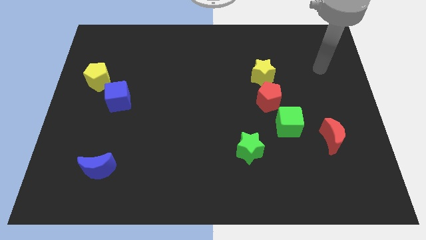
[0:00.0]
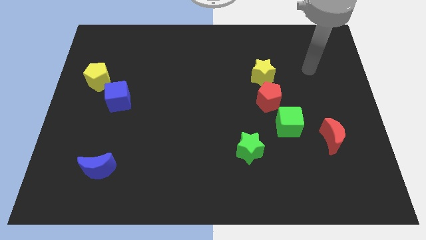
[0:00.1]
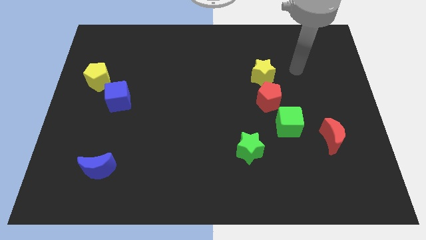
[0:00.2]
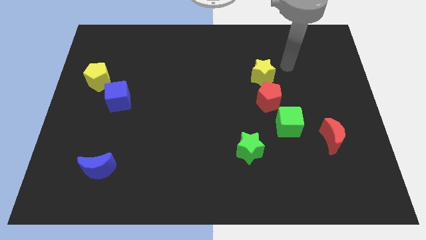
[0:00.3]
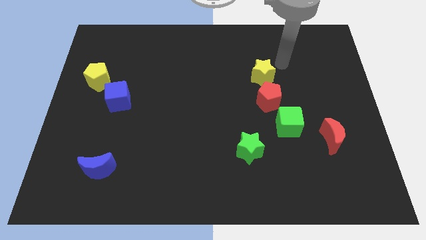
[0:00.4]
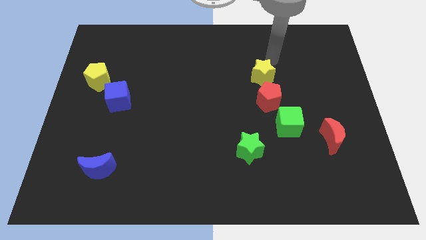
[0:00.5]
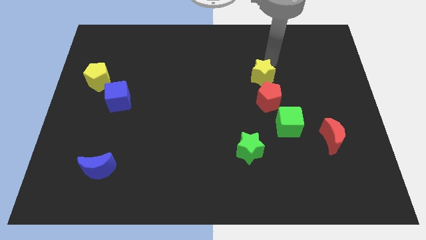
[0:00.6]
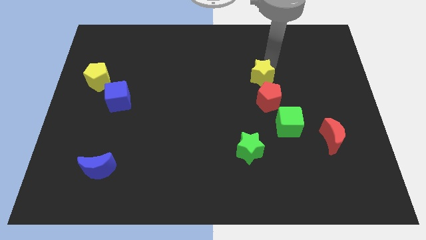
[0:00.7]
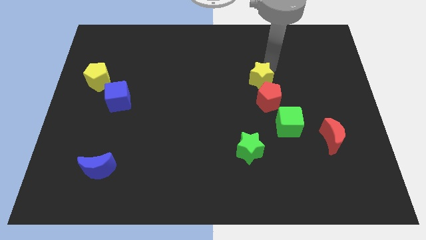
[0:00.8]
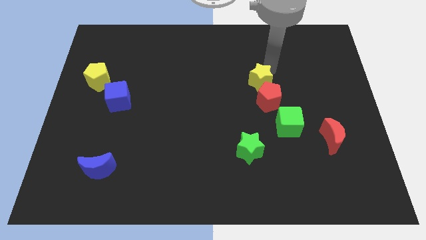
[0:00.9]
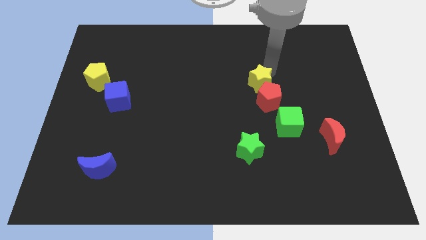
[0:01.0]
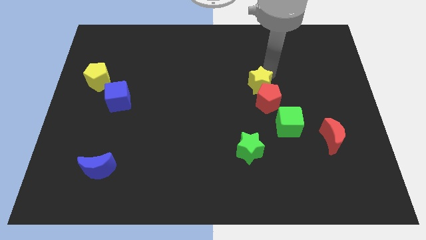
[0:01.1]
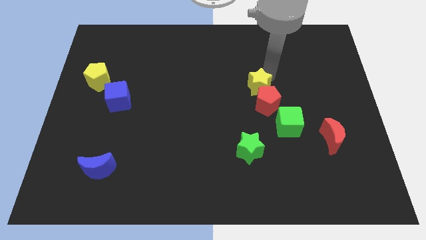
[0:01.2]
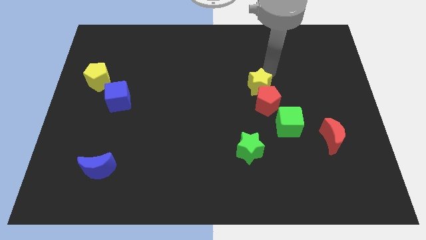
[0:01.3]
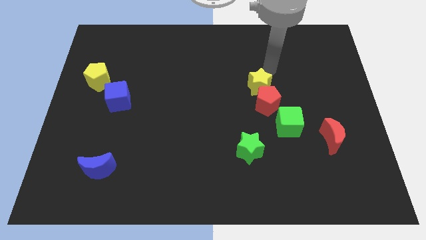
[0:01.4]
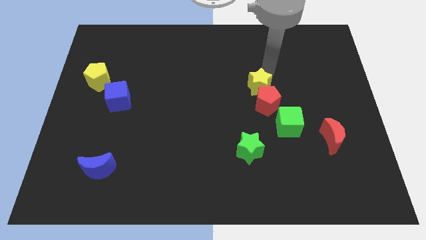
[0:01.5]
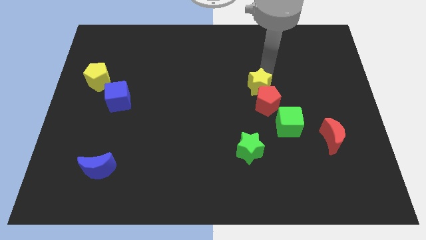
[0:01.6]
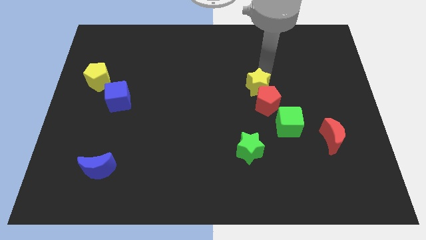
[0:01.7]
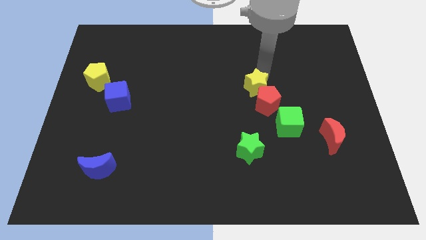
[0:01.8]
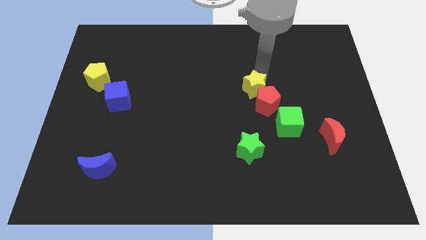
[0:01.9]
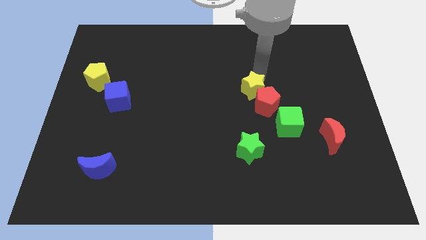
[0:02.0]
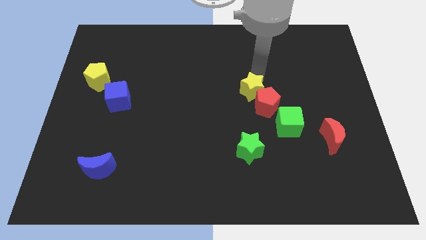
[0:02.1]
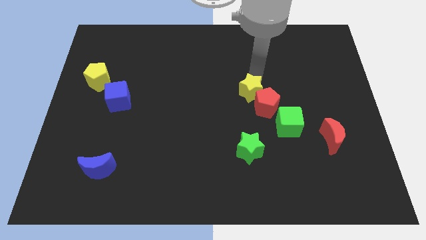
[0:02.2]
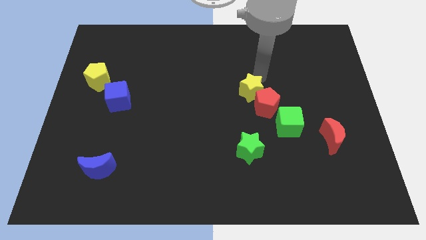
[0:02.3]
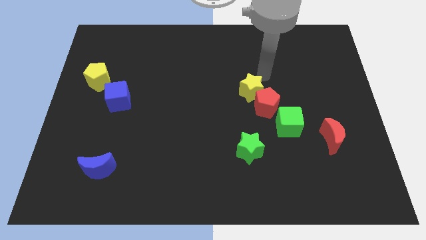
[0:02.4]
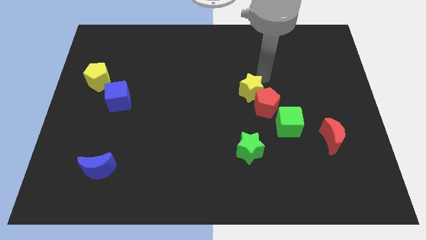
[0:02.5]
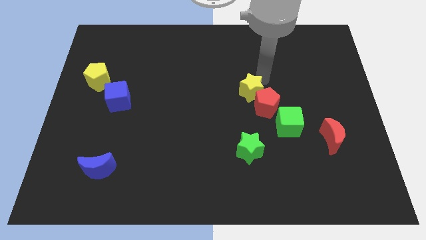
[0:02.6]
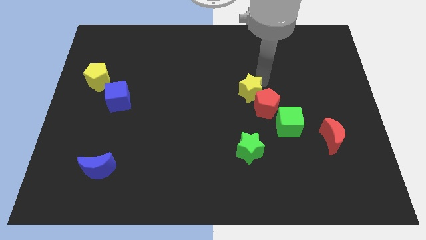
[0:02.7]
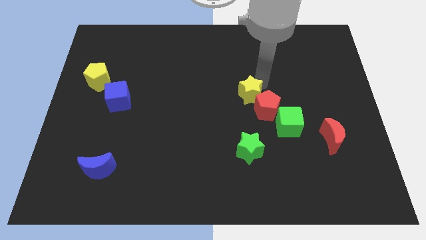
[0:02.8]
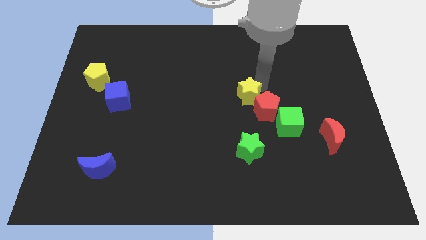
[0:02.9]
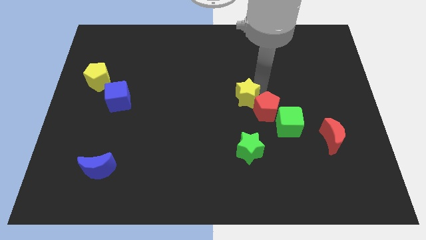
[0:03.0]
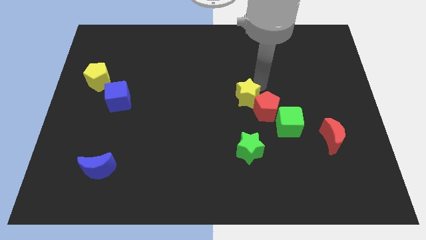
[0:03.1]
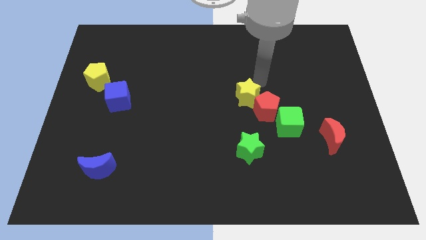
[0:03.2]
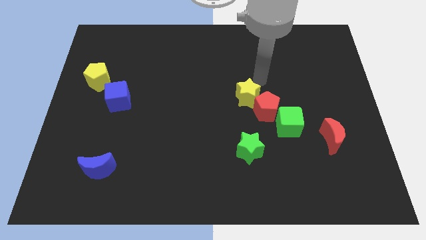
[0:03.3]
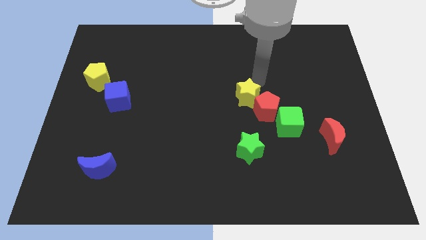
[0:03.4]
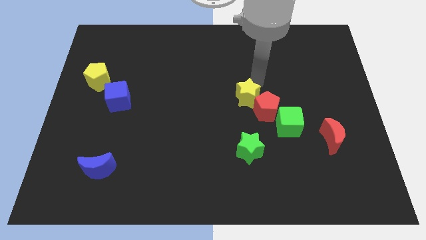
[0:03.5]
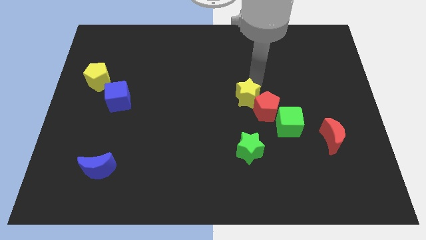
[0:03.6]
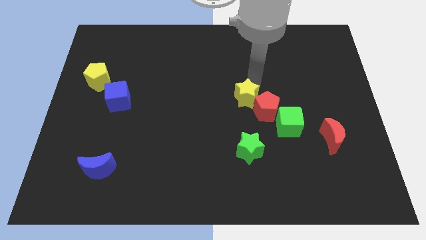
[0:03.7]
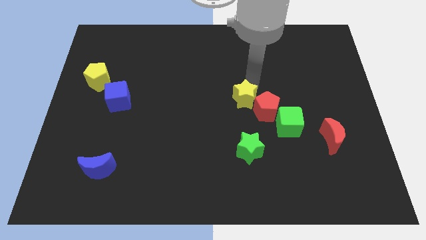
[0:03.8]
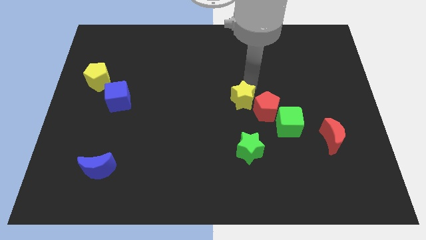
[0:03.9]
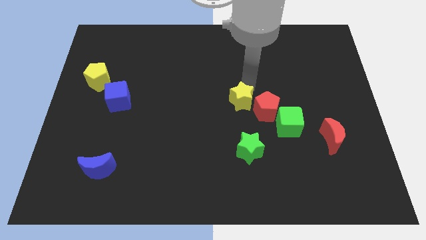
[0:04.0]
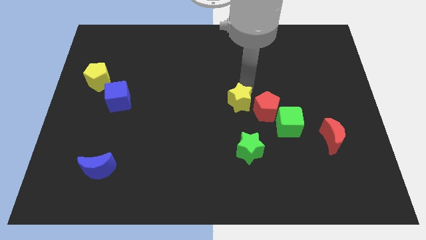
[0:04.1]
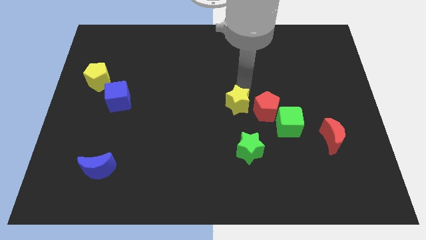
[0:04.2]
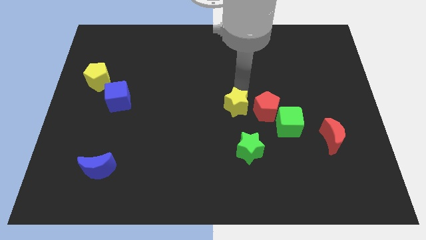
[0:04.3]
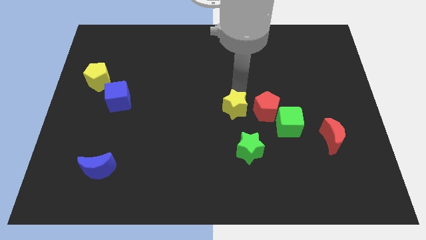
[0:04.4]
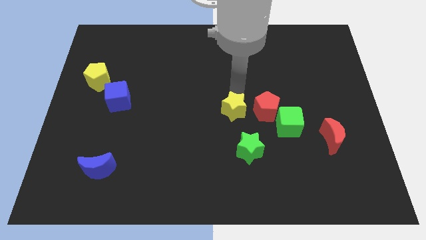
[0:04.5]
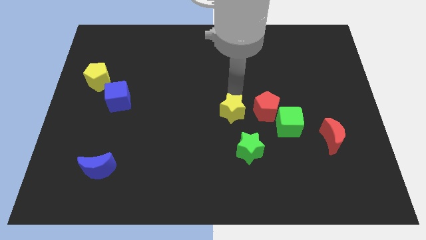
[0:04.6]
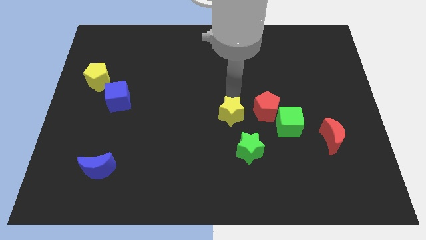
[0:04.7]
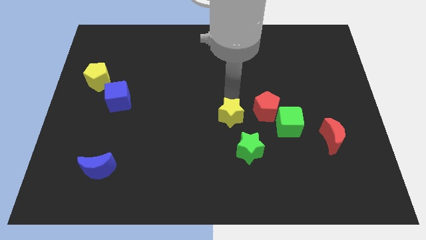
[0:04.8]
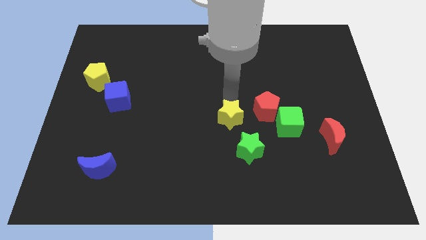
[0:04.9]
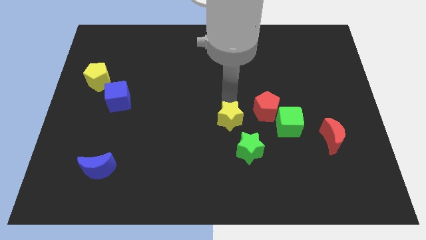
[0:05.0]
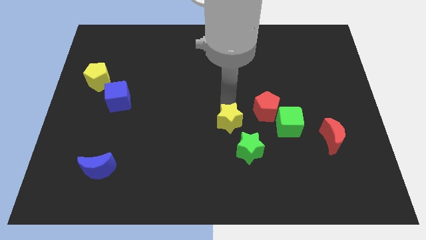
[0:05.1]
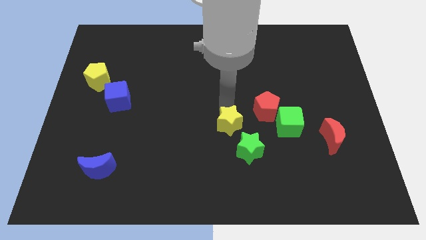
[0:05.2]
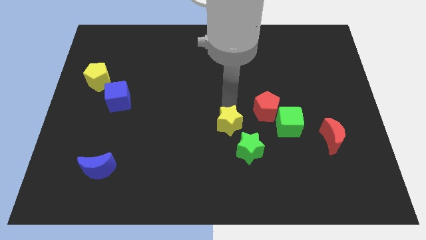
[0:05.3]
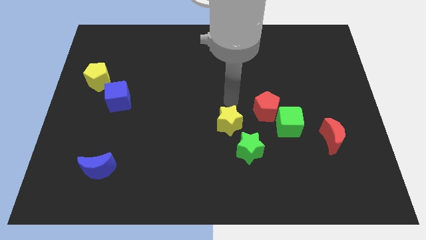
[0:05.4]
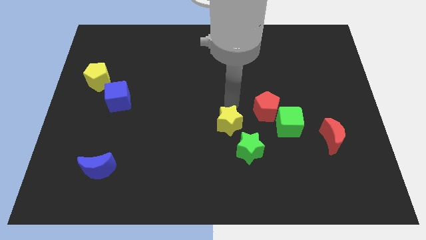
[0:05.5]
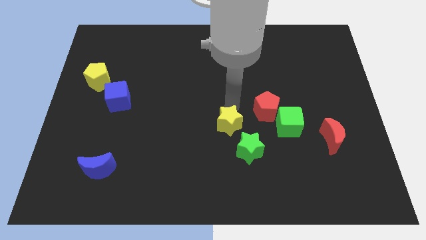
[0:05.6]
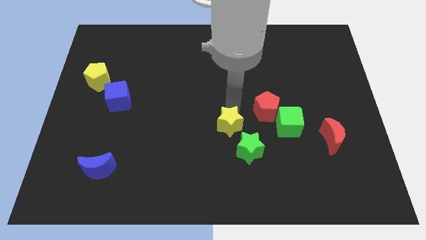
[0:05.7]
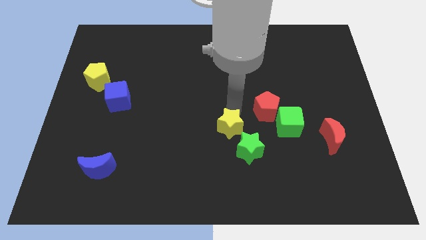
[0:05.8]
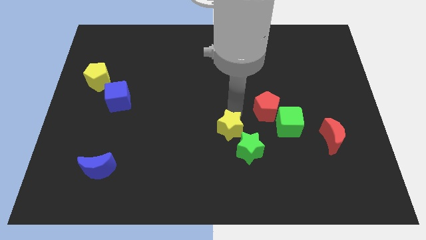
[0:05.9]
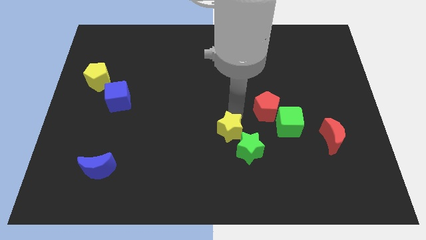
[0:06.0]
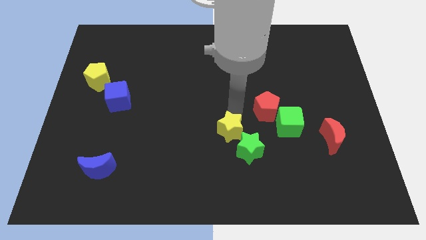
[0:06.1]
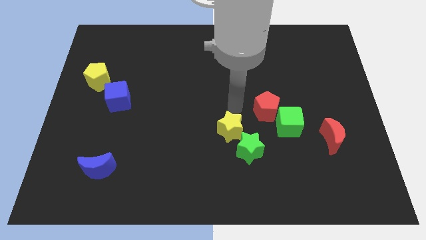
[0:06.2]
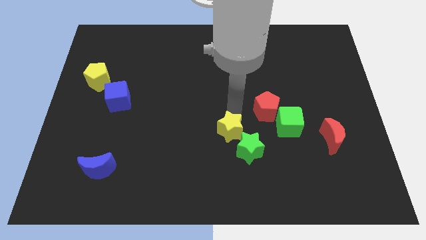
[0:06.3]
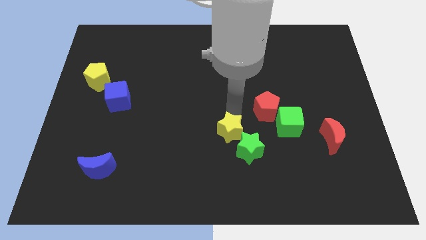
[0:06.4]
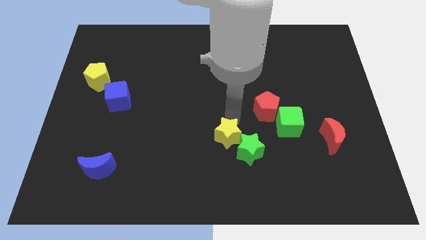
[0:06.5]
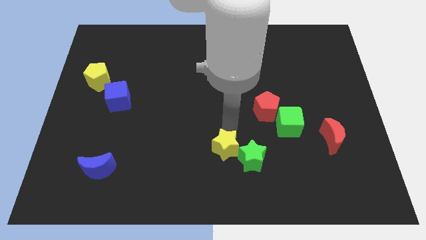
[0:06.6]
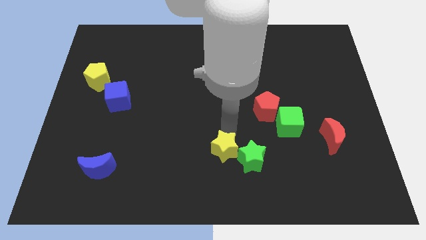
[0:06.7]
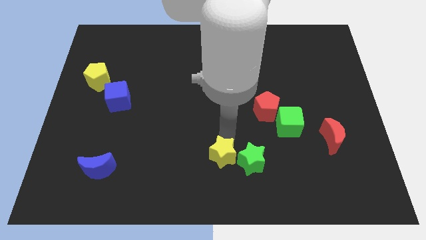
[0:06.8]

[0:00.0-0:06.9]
move the yellow star to the bottom
